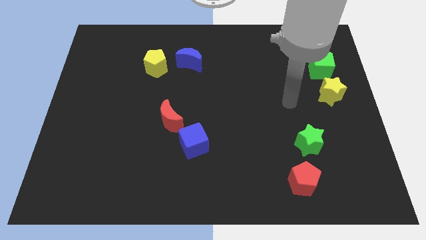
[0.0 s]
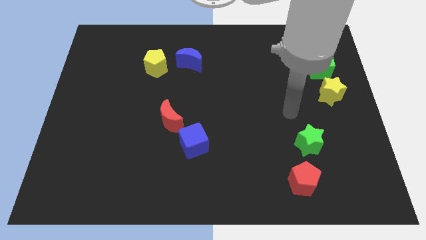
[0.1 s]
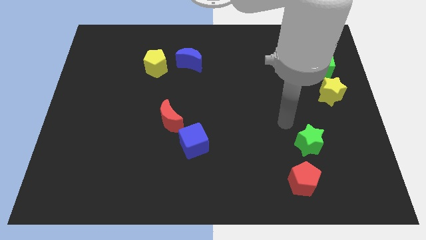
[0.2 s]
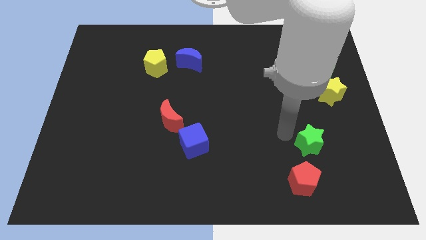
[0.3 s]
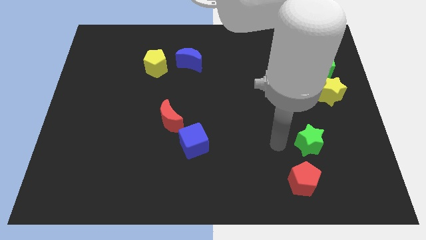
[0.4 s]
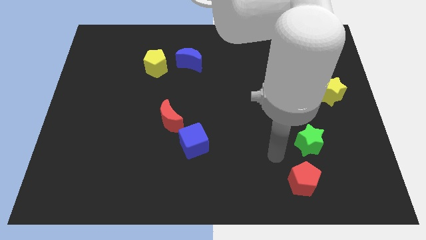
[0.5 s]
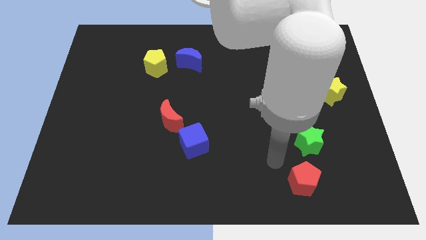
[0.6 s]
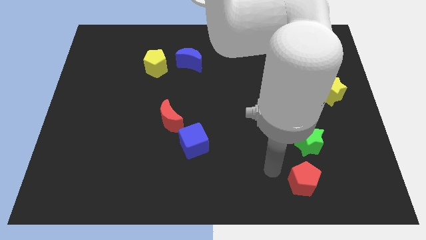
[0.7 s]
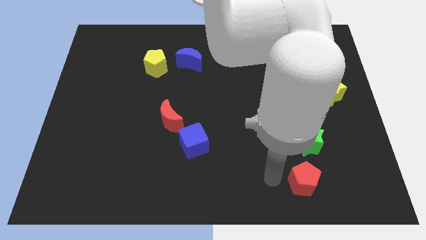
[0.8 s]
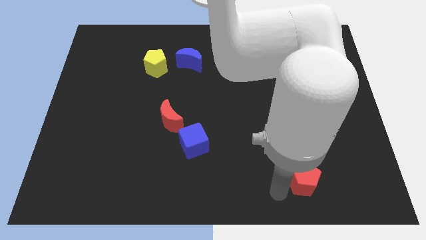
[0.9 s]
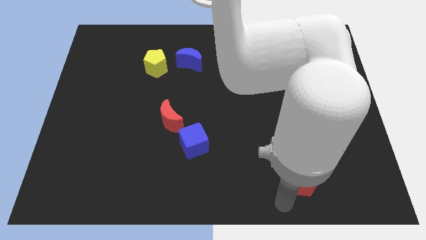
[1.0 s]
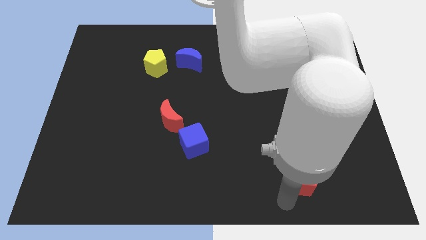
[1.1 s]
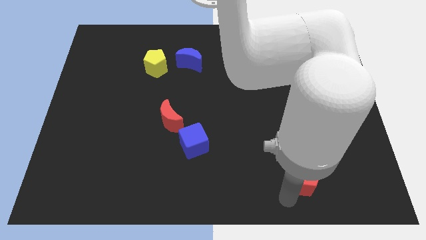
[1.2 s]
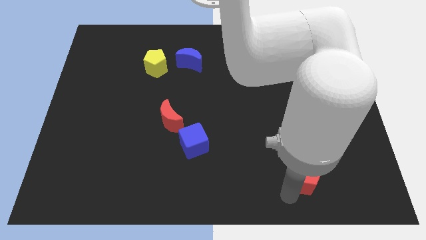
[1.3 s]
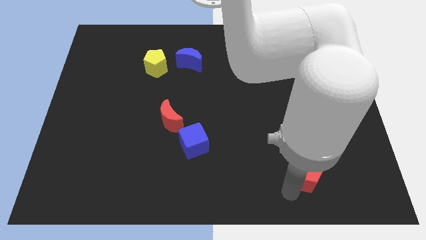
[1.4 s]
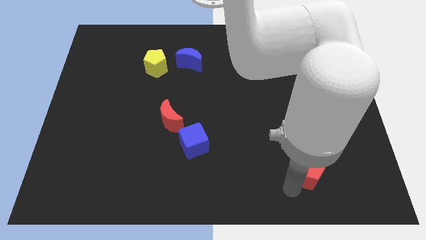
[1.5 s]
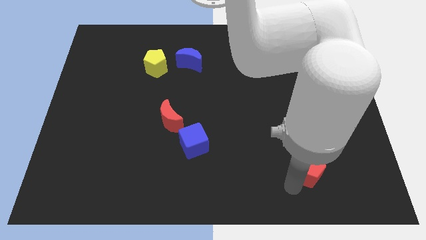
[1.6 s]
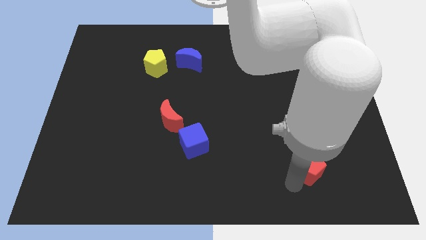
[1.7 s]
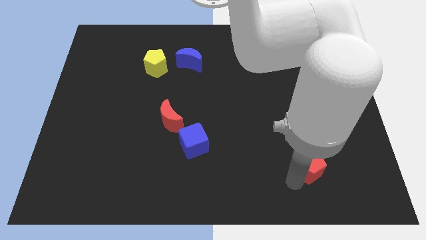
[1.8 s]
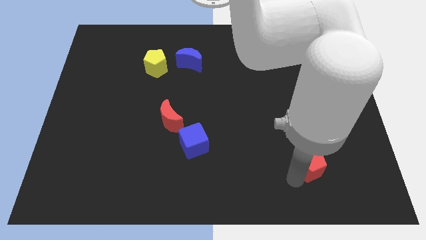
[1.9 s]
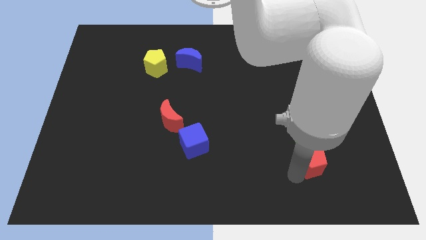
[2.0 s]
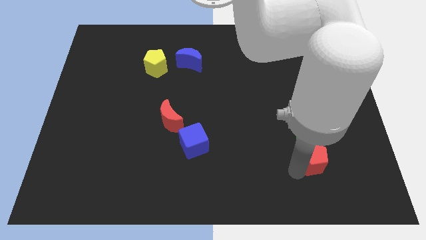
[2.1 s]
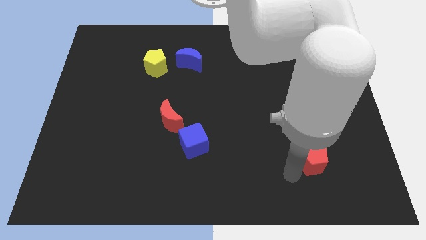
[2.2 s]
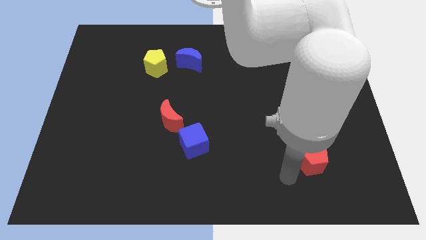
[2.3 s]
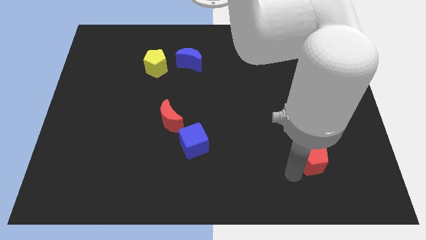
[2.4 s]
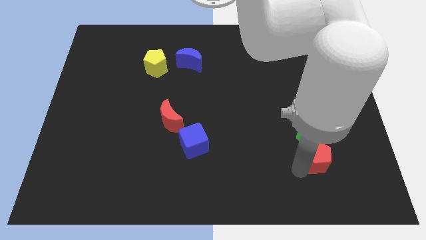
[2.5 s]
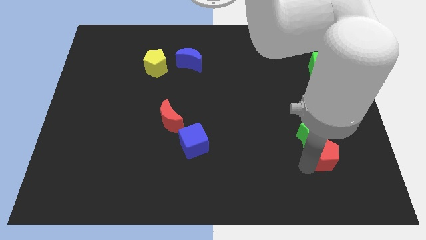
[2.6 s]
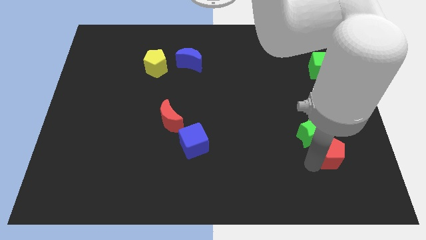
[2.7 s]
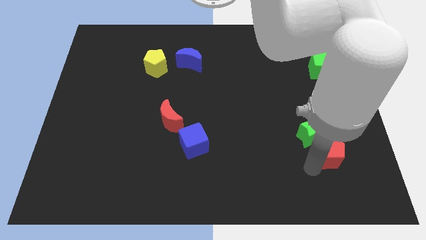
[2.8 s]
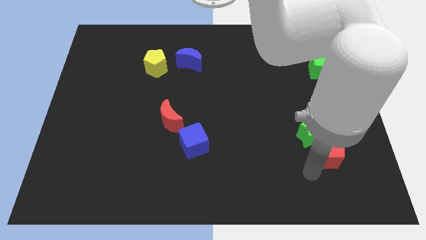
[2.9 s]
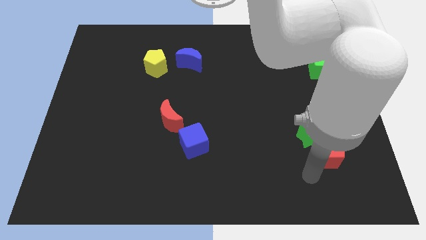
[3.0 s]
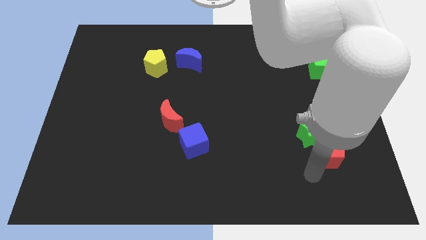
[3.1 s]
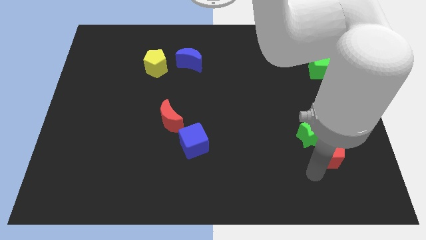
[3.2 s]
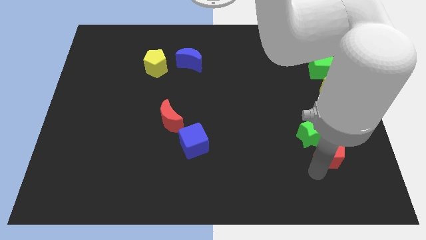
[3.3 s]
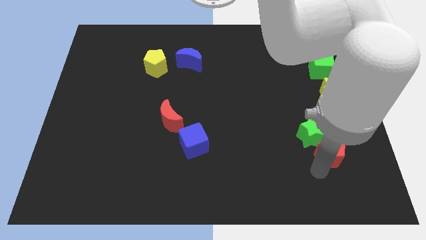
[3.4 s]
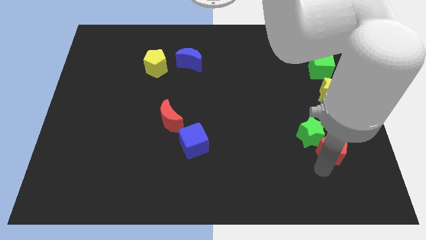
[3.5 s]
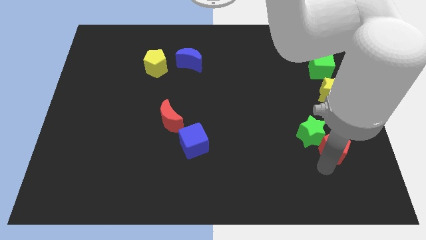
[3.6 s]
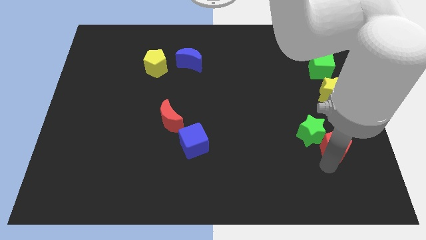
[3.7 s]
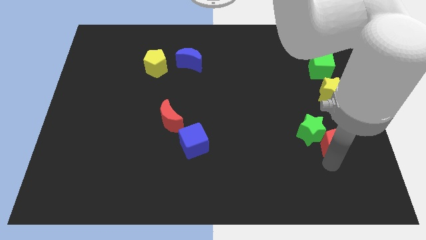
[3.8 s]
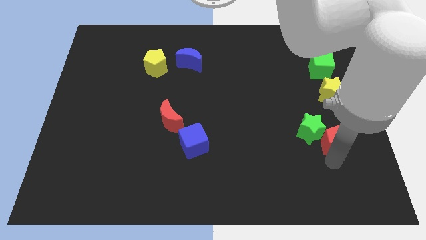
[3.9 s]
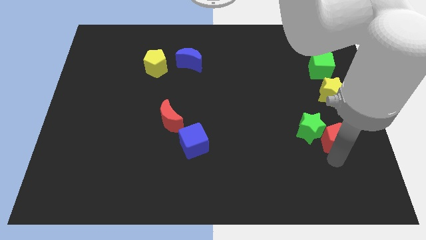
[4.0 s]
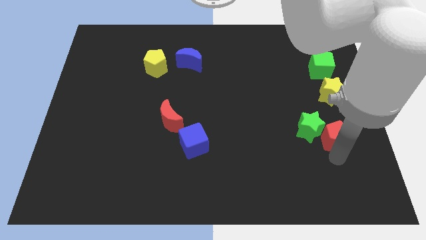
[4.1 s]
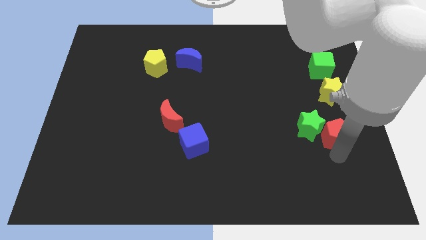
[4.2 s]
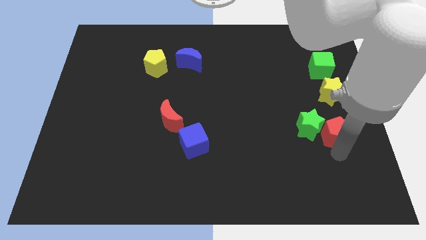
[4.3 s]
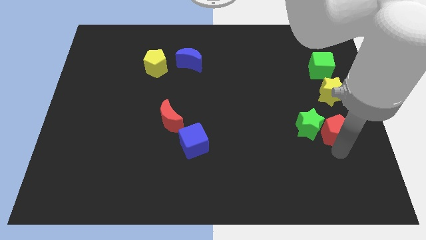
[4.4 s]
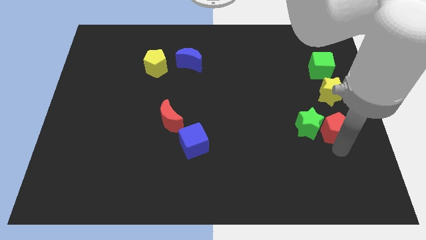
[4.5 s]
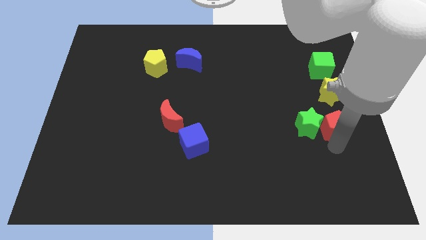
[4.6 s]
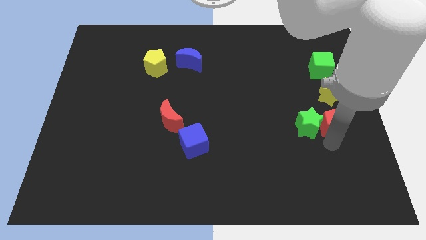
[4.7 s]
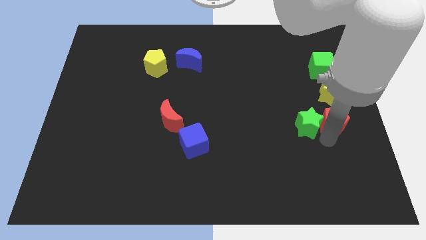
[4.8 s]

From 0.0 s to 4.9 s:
push the red pentagon to the right side of the board

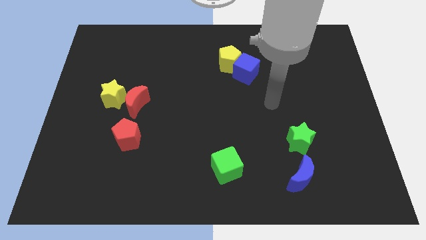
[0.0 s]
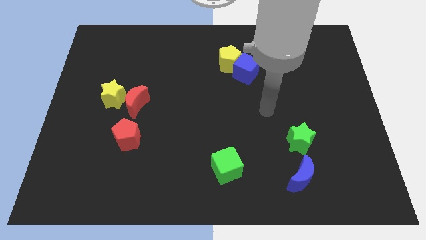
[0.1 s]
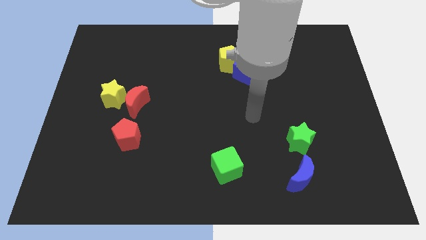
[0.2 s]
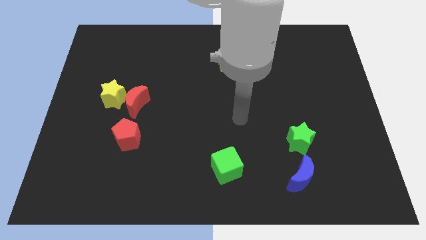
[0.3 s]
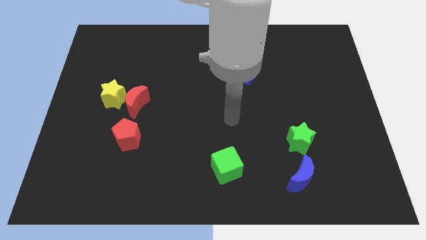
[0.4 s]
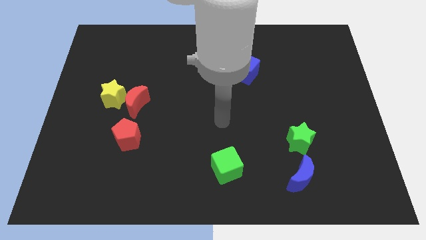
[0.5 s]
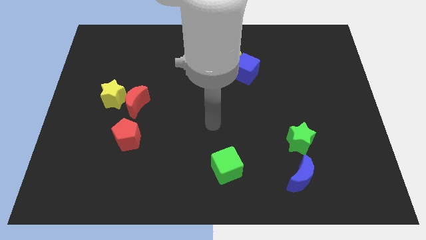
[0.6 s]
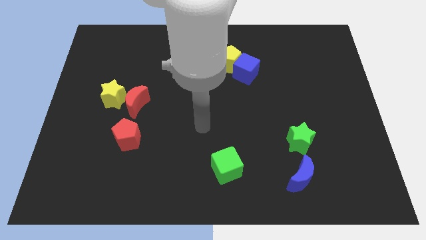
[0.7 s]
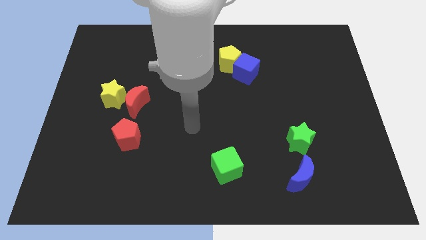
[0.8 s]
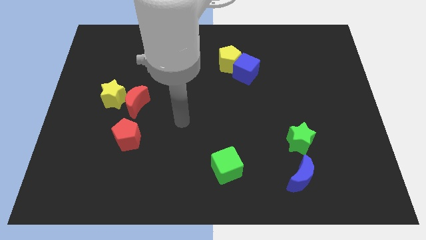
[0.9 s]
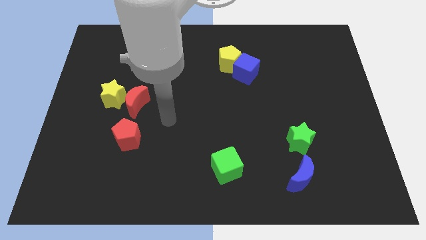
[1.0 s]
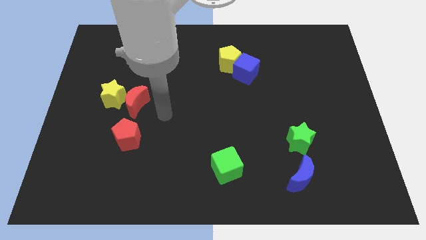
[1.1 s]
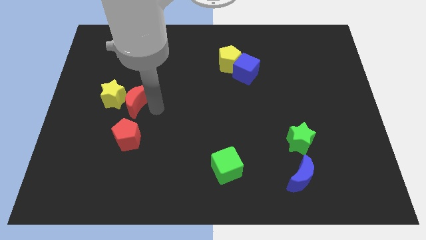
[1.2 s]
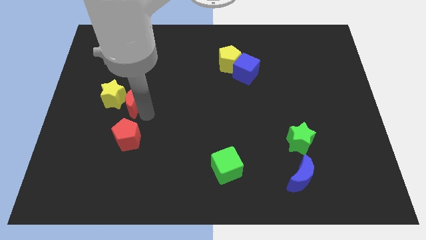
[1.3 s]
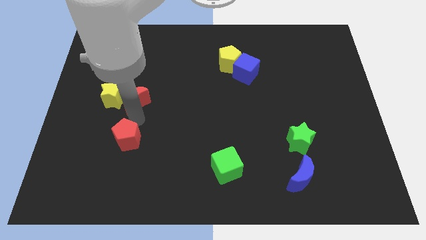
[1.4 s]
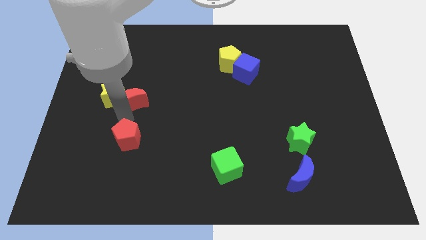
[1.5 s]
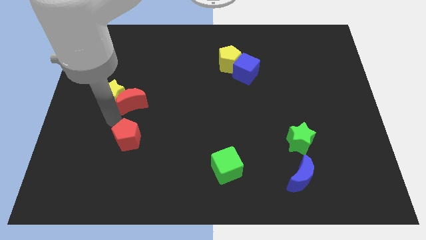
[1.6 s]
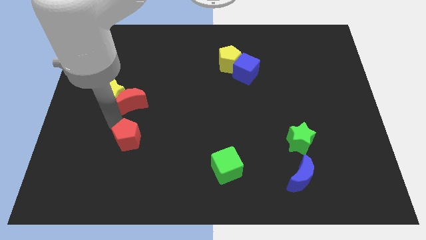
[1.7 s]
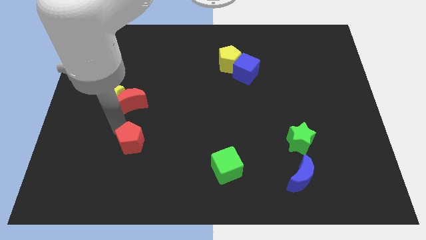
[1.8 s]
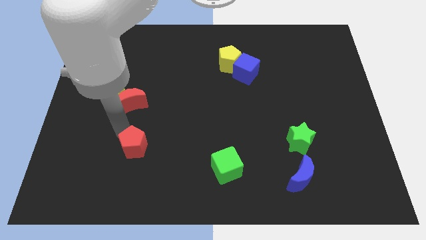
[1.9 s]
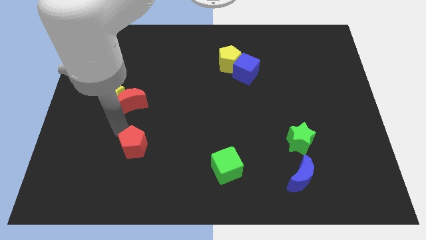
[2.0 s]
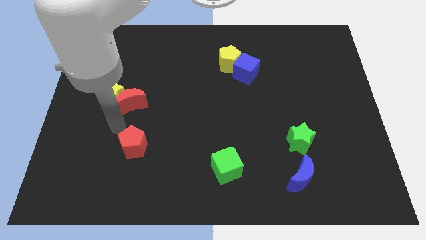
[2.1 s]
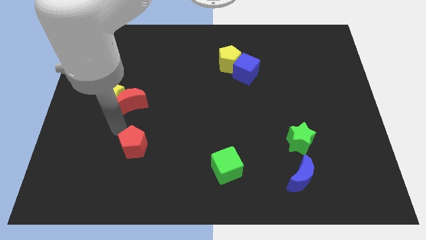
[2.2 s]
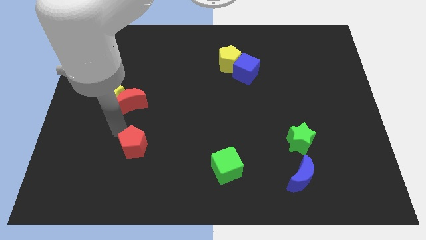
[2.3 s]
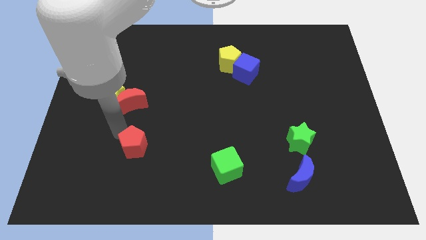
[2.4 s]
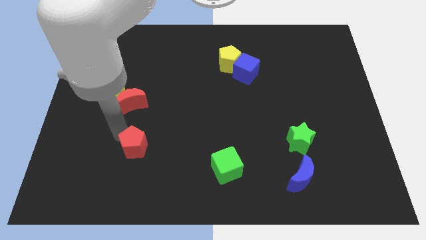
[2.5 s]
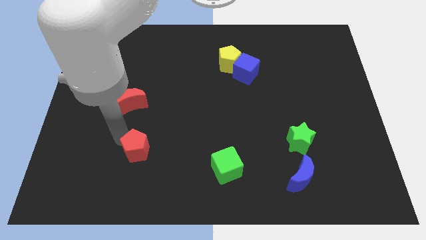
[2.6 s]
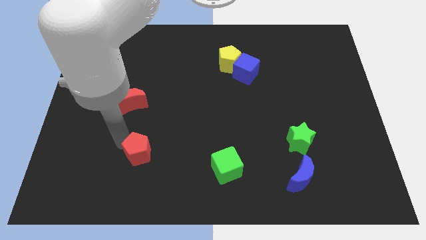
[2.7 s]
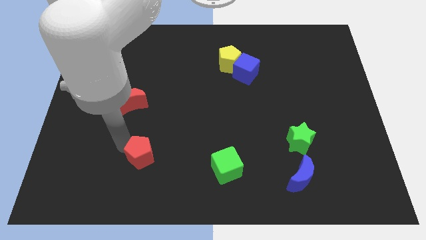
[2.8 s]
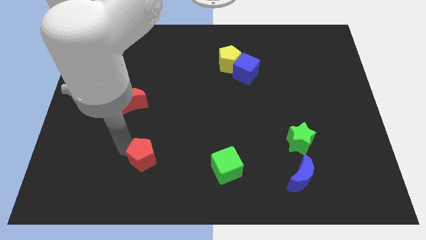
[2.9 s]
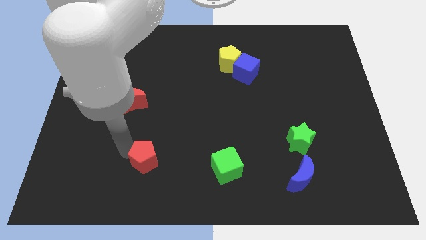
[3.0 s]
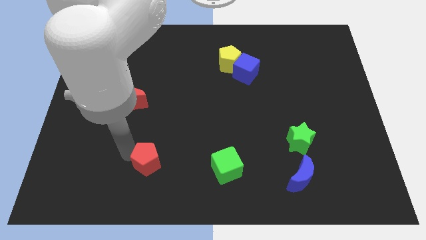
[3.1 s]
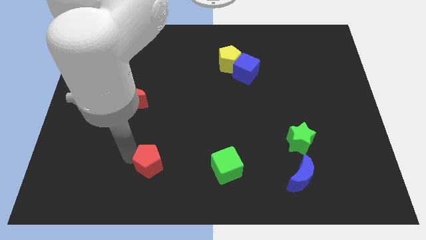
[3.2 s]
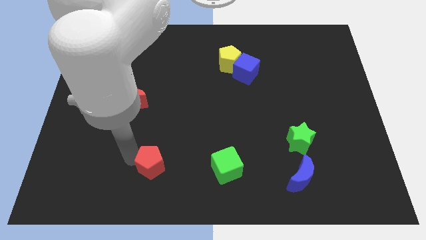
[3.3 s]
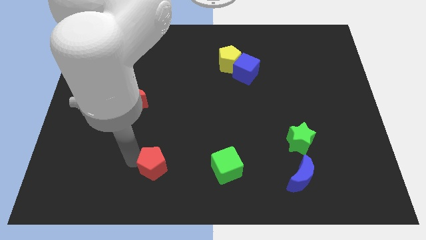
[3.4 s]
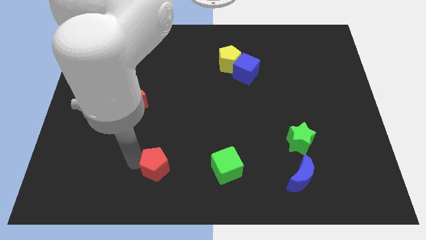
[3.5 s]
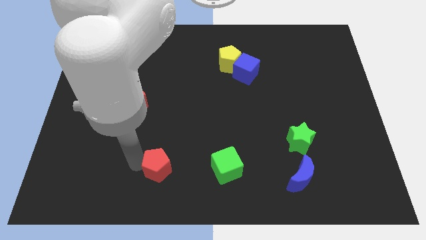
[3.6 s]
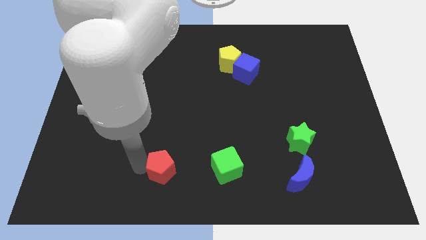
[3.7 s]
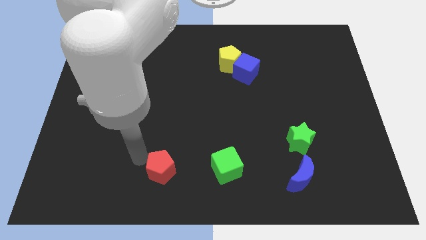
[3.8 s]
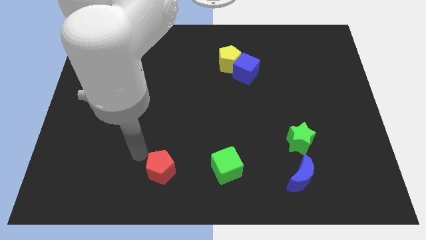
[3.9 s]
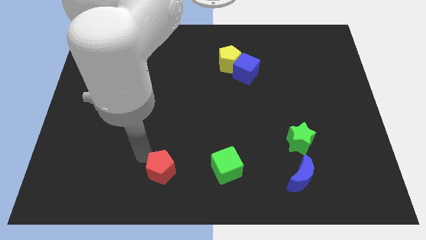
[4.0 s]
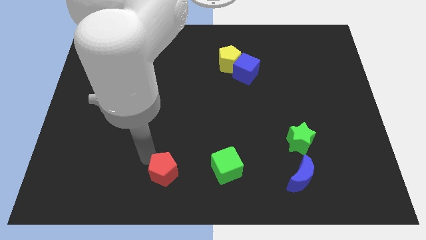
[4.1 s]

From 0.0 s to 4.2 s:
slide the red pentagon to the bottom side
